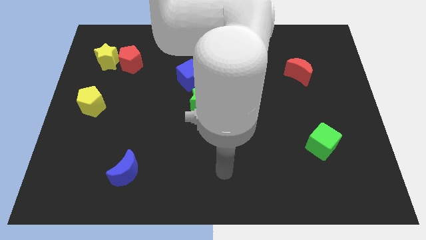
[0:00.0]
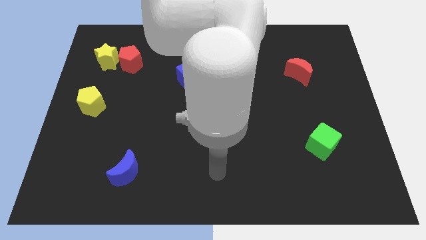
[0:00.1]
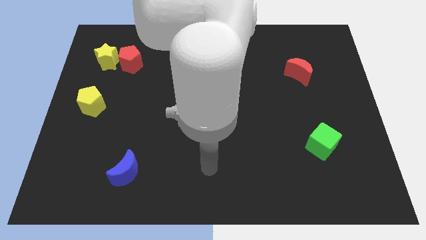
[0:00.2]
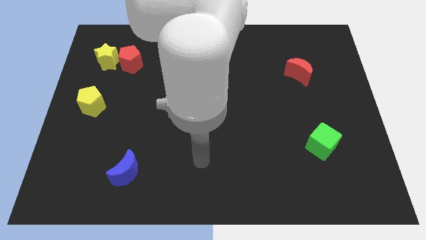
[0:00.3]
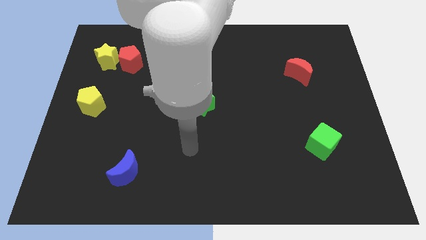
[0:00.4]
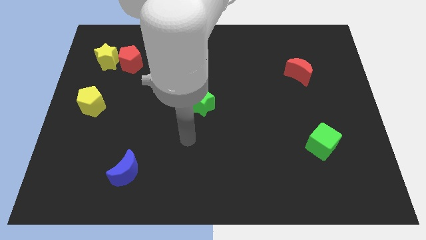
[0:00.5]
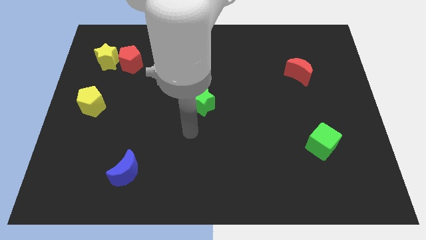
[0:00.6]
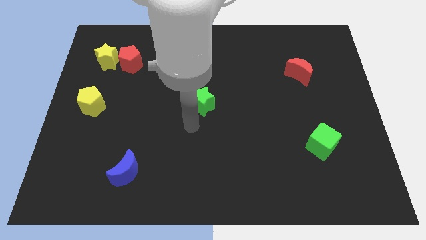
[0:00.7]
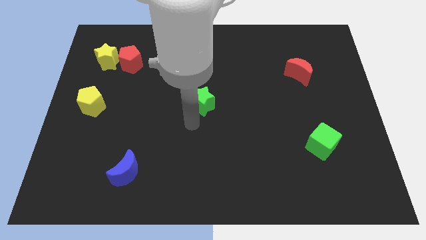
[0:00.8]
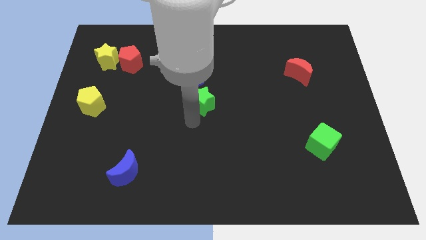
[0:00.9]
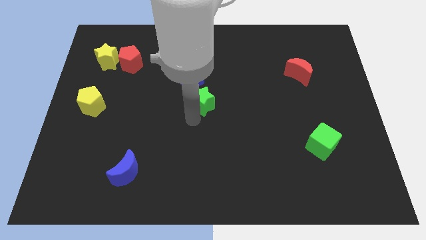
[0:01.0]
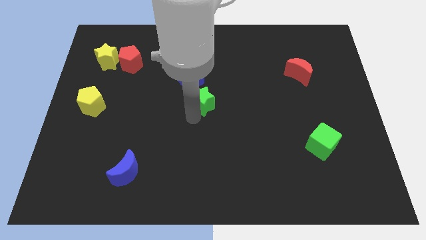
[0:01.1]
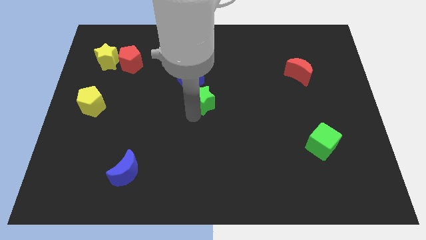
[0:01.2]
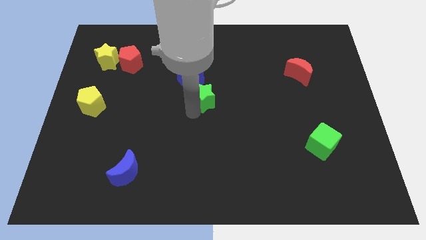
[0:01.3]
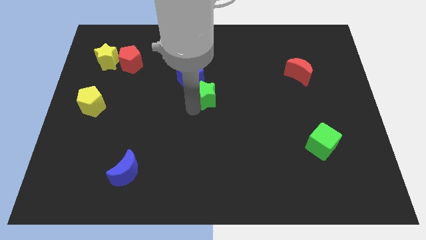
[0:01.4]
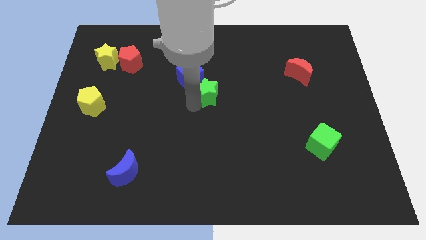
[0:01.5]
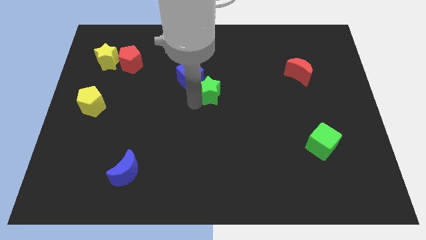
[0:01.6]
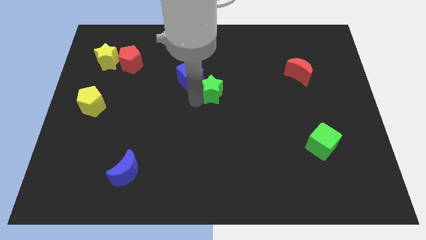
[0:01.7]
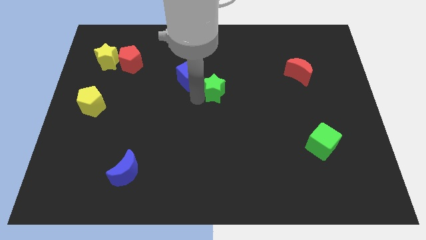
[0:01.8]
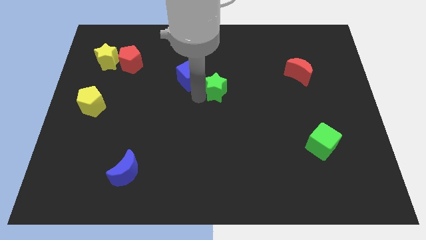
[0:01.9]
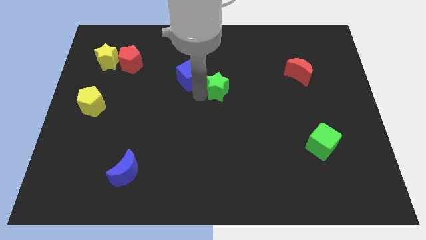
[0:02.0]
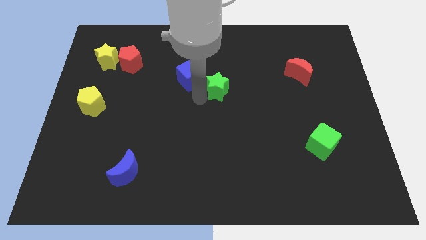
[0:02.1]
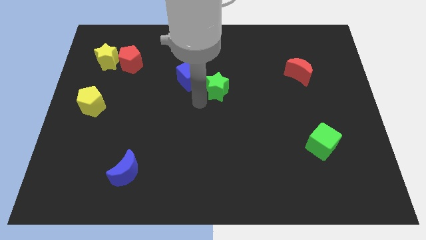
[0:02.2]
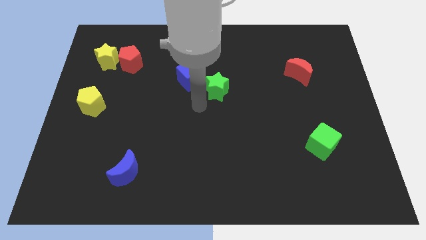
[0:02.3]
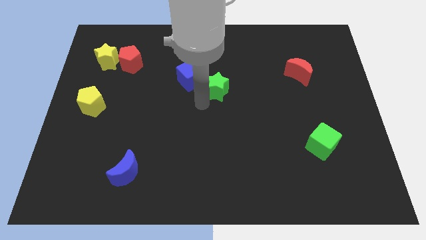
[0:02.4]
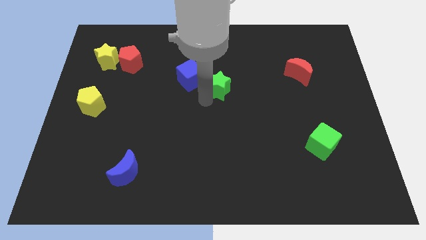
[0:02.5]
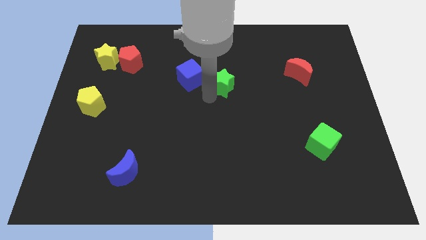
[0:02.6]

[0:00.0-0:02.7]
move the green star diagonally upwards and to the right somewhat

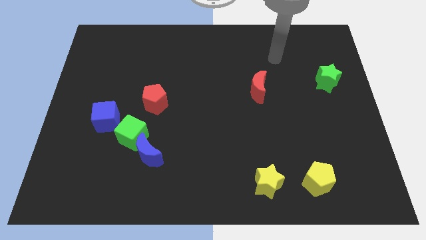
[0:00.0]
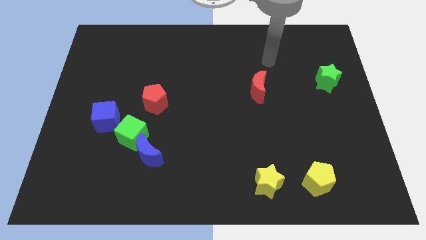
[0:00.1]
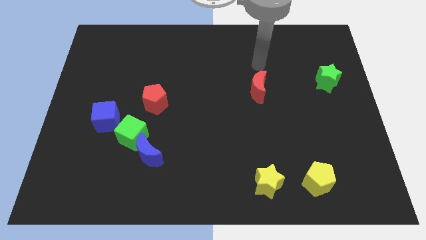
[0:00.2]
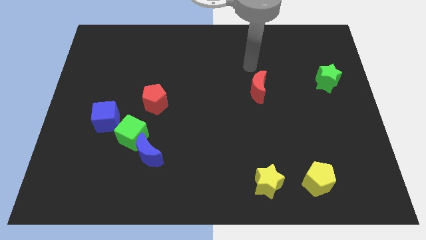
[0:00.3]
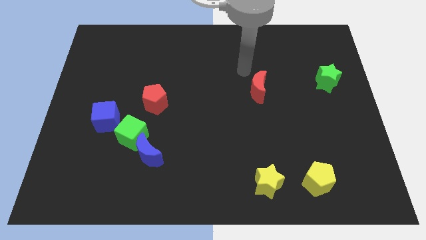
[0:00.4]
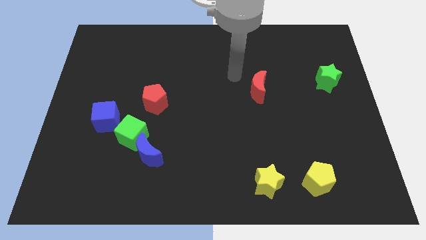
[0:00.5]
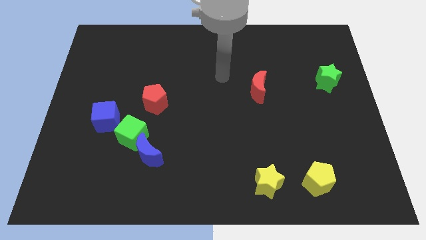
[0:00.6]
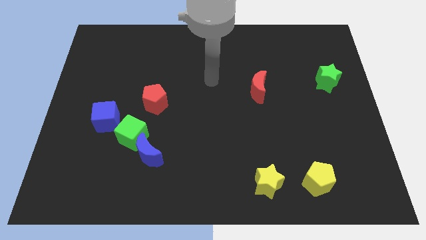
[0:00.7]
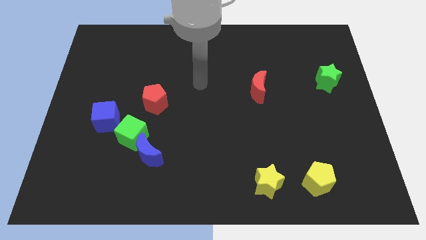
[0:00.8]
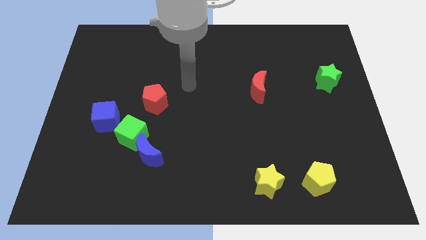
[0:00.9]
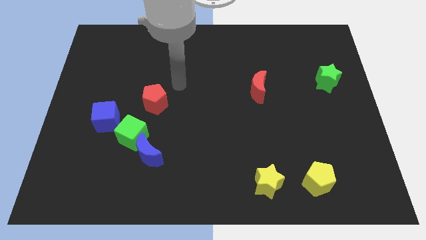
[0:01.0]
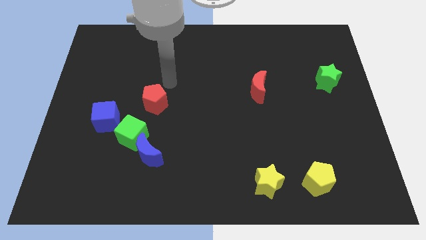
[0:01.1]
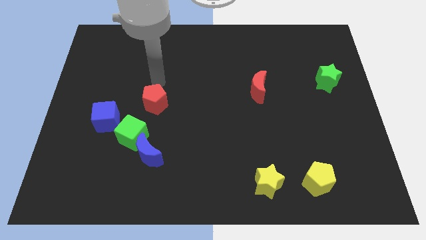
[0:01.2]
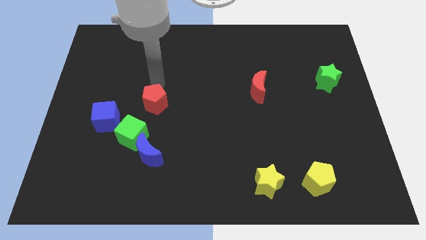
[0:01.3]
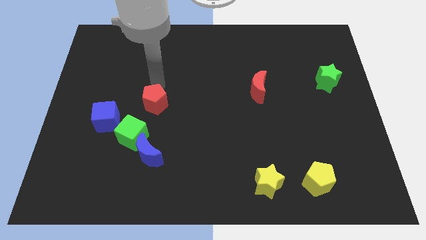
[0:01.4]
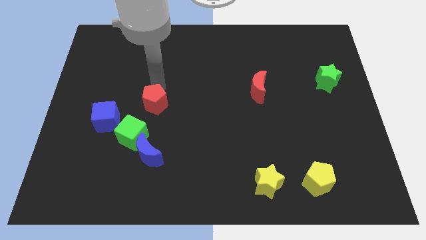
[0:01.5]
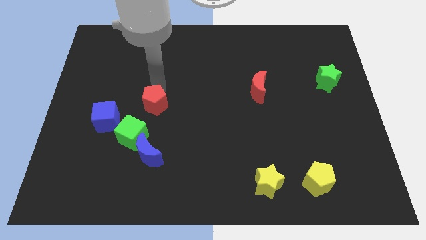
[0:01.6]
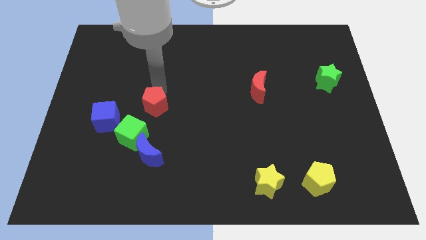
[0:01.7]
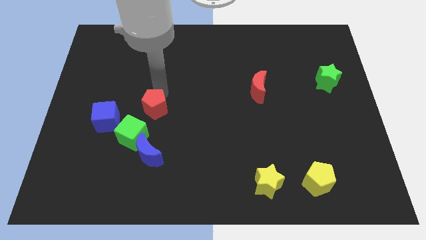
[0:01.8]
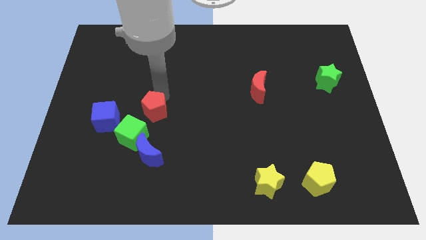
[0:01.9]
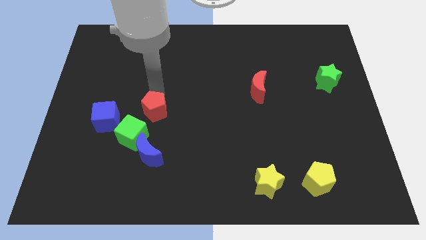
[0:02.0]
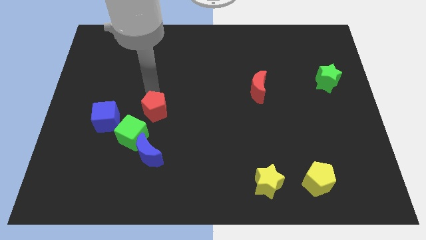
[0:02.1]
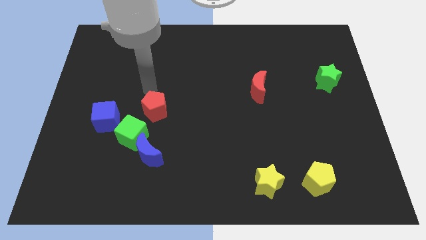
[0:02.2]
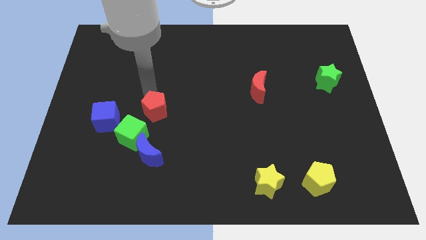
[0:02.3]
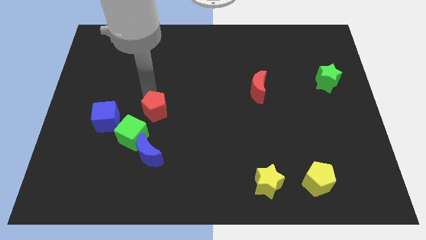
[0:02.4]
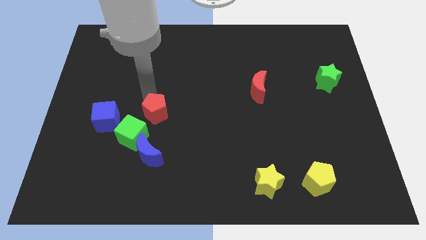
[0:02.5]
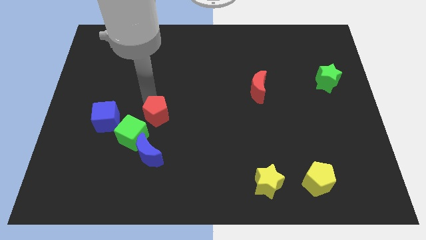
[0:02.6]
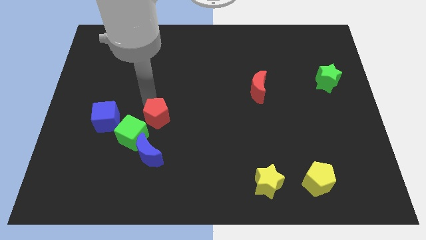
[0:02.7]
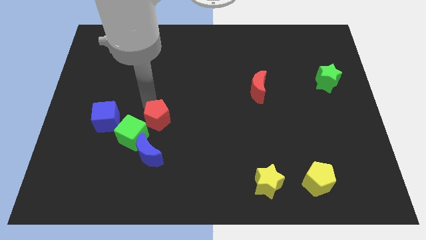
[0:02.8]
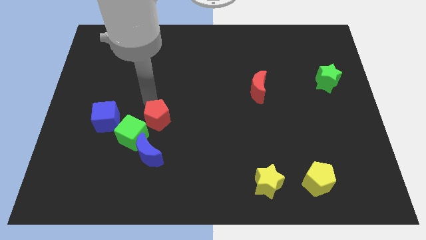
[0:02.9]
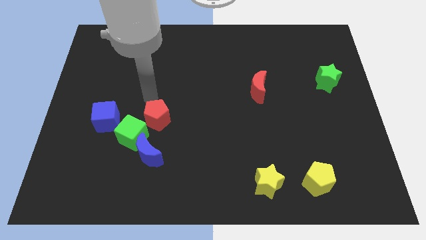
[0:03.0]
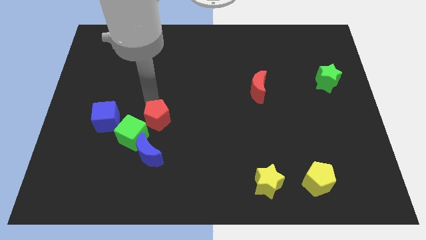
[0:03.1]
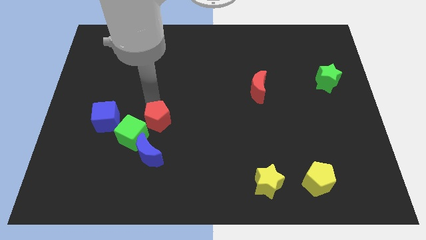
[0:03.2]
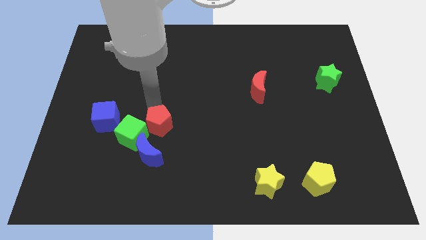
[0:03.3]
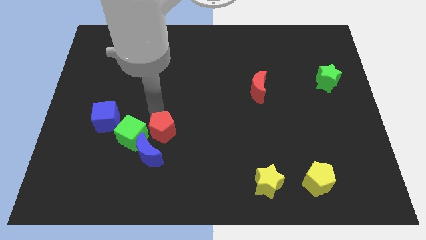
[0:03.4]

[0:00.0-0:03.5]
slide the red pentagon a little bit downwards

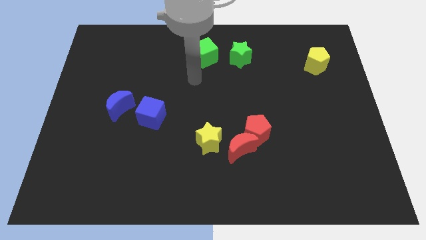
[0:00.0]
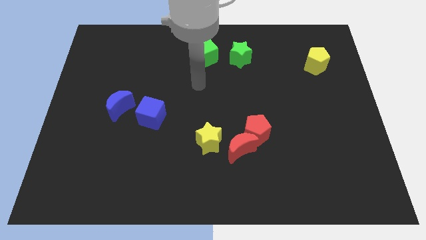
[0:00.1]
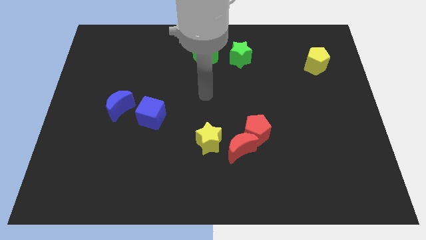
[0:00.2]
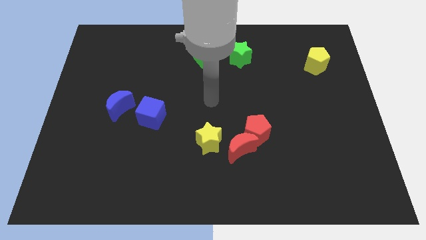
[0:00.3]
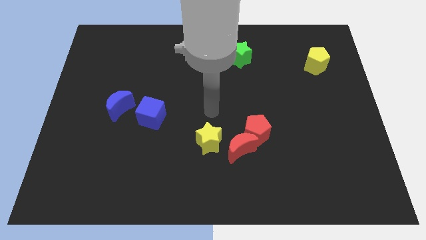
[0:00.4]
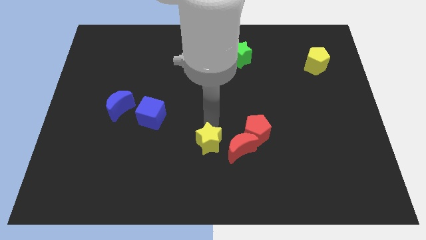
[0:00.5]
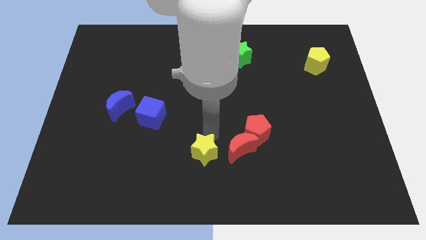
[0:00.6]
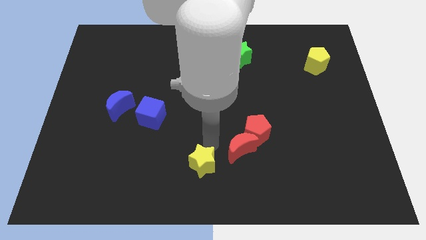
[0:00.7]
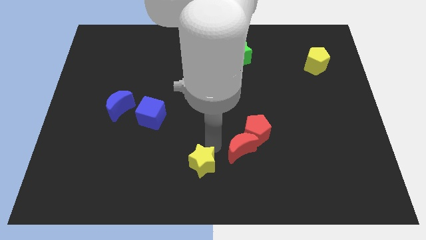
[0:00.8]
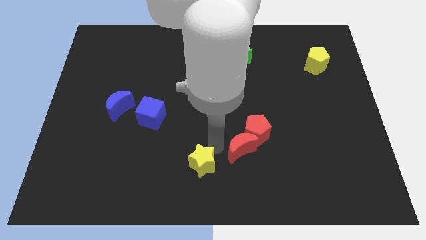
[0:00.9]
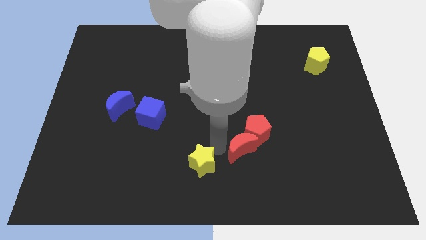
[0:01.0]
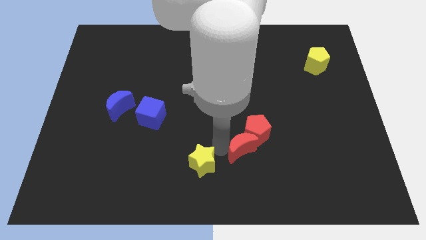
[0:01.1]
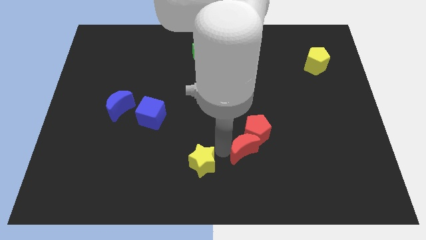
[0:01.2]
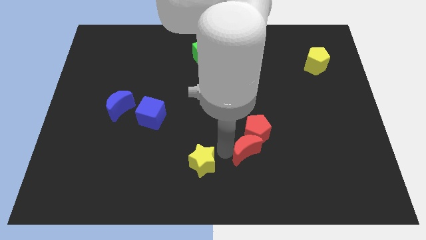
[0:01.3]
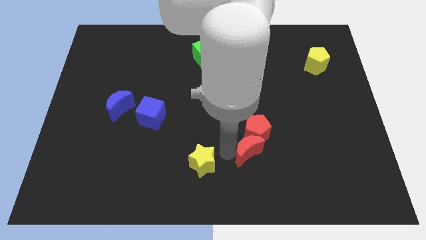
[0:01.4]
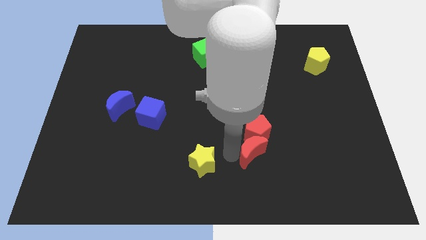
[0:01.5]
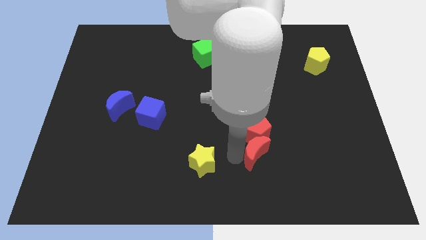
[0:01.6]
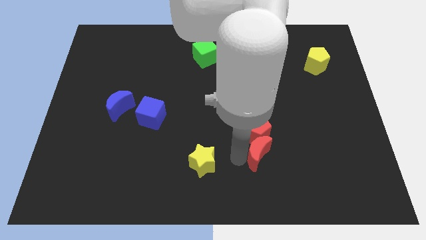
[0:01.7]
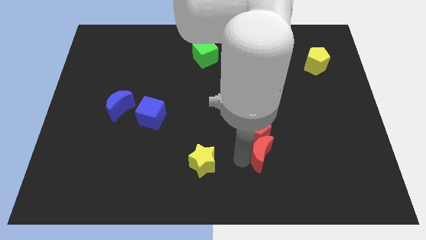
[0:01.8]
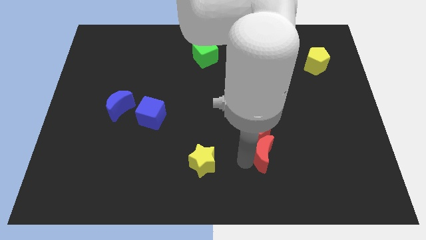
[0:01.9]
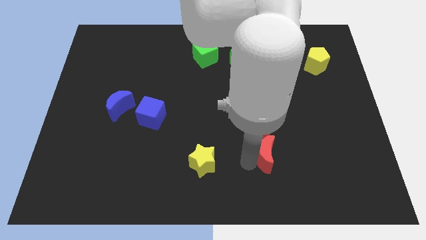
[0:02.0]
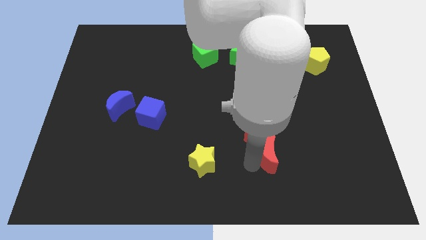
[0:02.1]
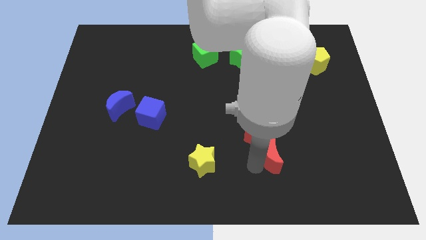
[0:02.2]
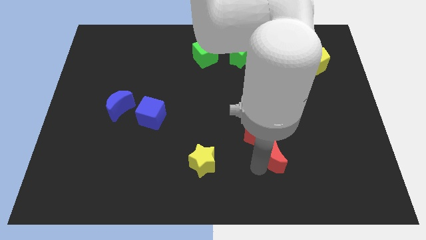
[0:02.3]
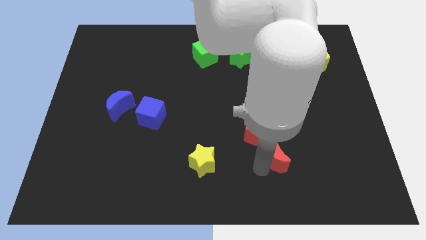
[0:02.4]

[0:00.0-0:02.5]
push the red moon somewhat to the right
